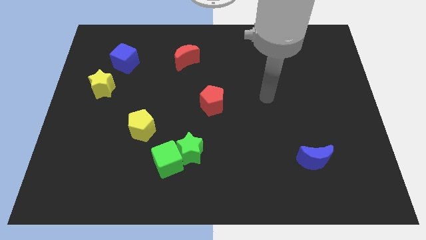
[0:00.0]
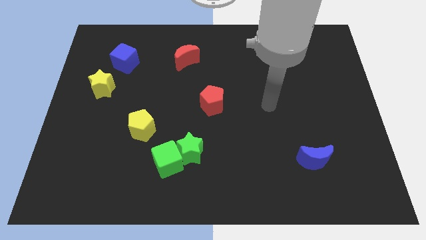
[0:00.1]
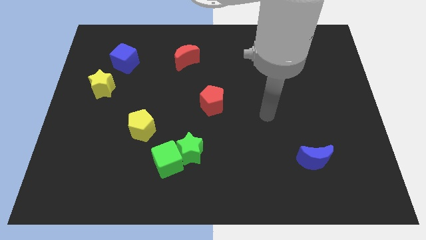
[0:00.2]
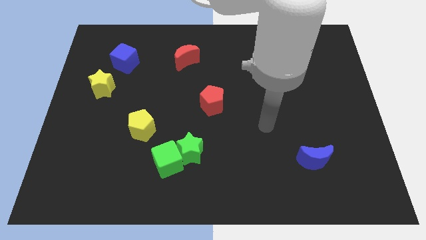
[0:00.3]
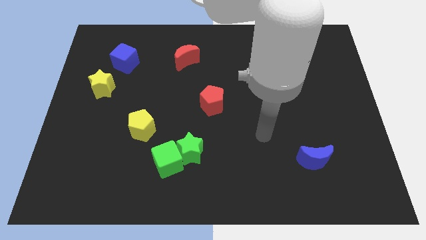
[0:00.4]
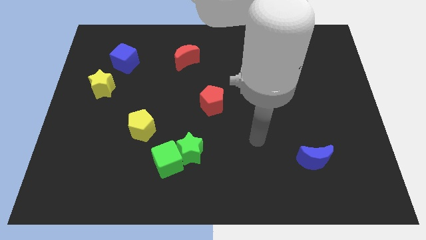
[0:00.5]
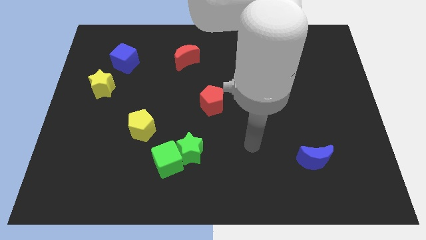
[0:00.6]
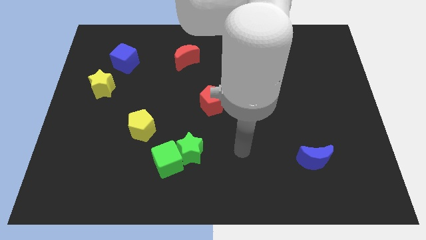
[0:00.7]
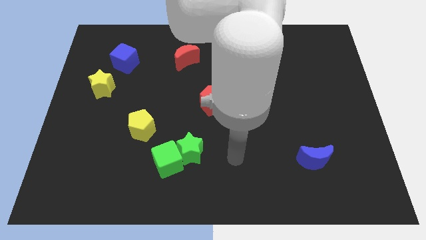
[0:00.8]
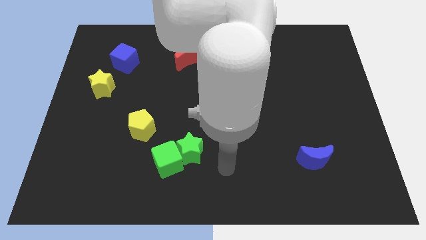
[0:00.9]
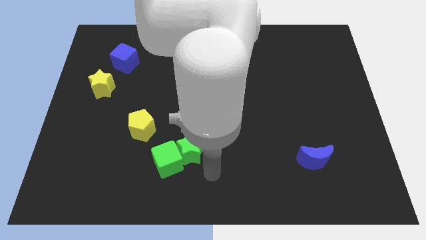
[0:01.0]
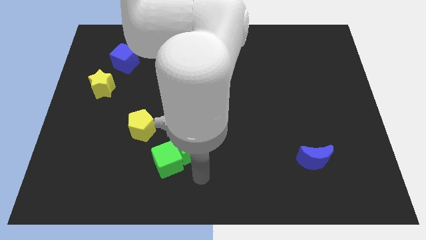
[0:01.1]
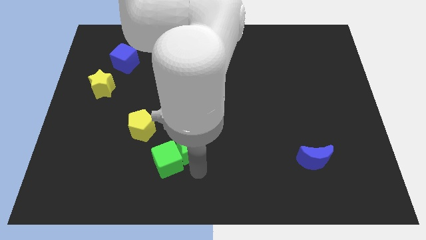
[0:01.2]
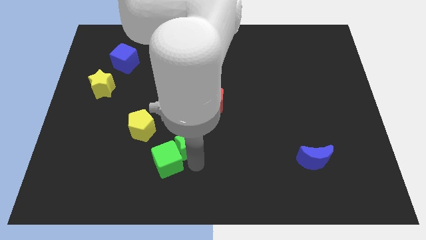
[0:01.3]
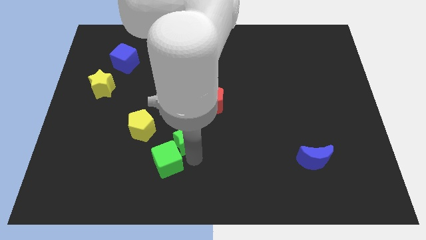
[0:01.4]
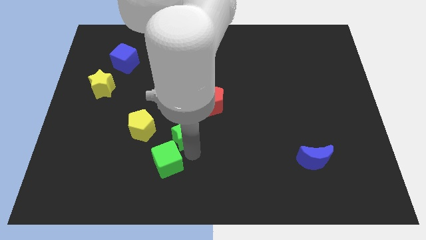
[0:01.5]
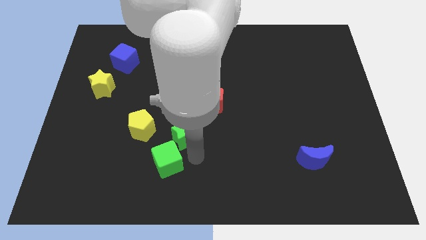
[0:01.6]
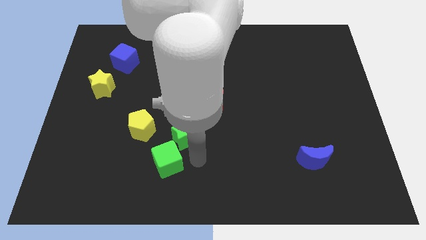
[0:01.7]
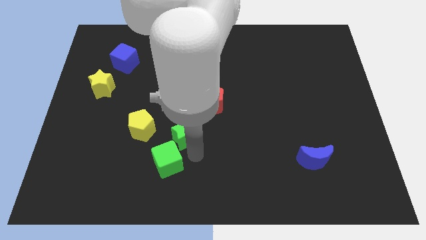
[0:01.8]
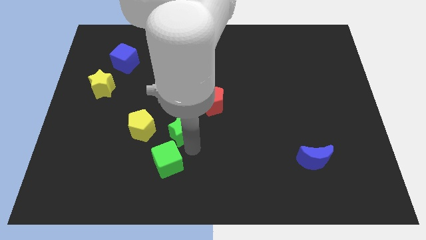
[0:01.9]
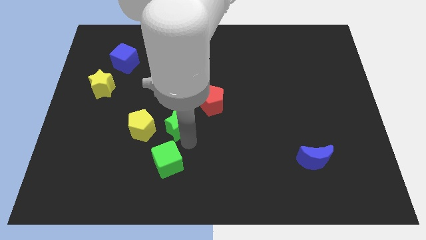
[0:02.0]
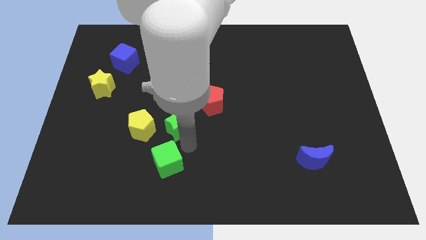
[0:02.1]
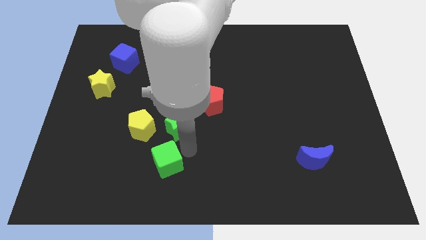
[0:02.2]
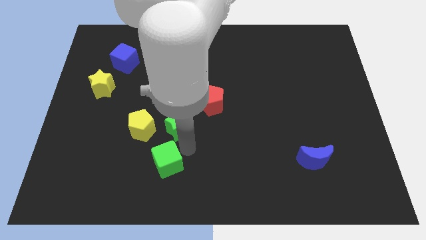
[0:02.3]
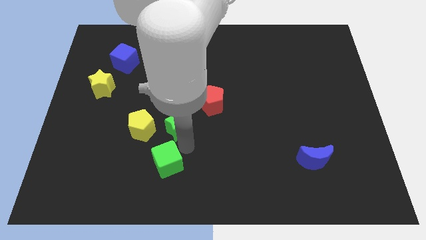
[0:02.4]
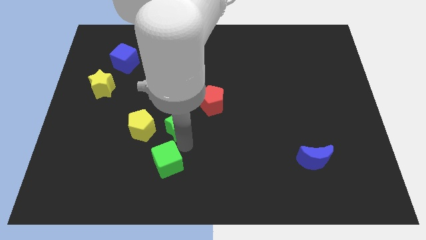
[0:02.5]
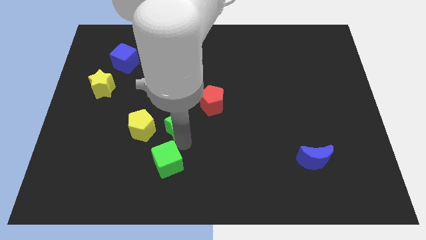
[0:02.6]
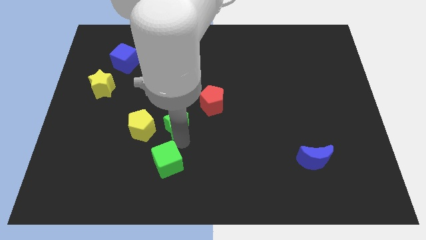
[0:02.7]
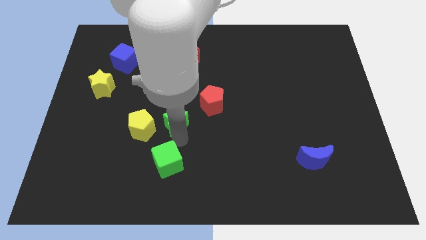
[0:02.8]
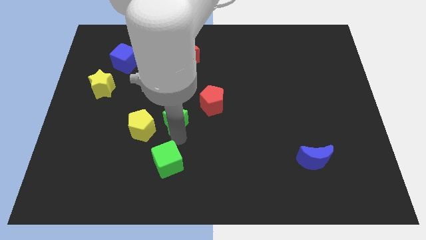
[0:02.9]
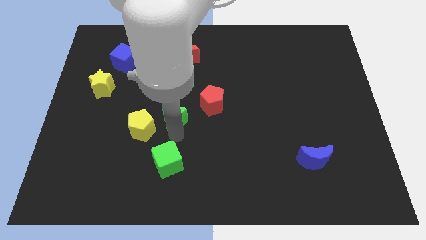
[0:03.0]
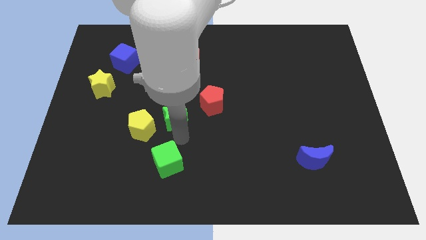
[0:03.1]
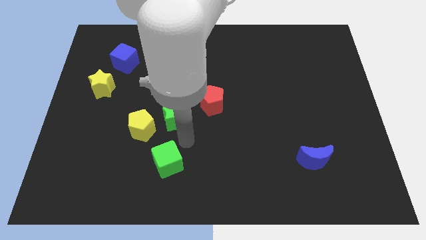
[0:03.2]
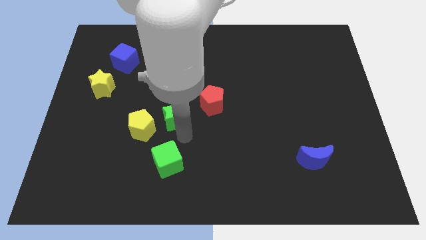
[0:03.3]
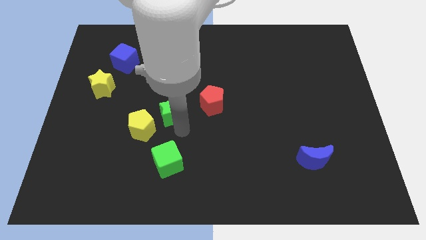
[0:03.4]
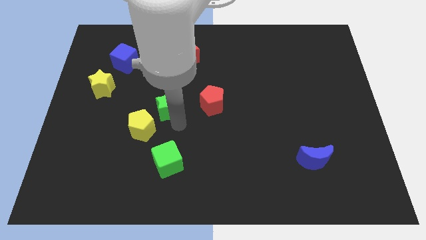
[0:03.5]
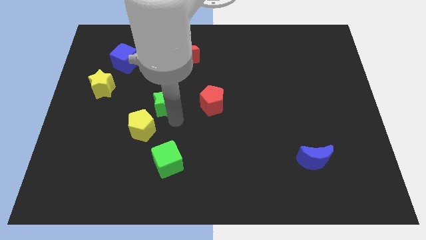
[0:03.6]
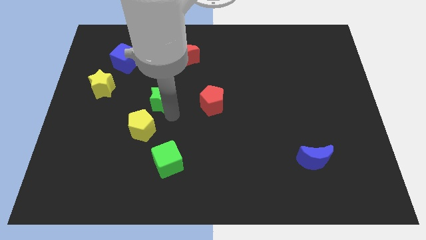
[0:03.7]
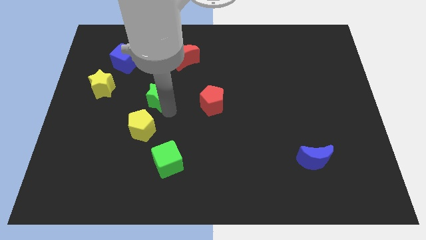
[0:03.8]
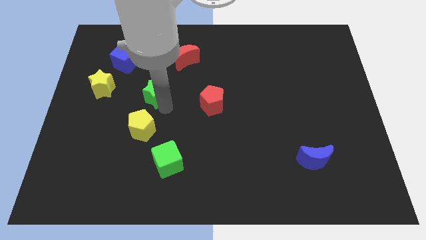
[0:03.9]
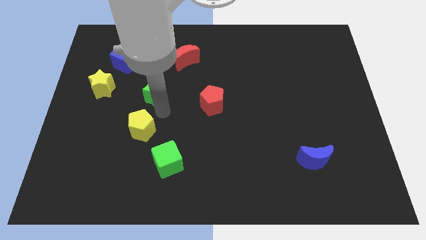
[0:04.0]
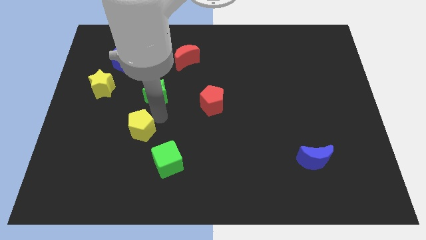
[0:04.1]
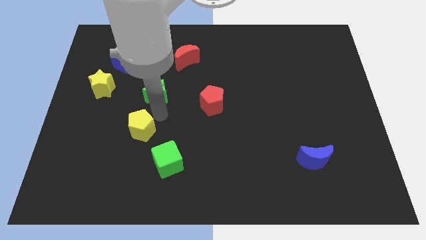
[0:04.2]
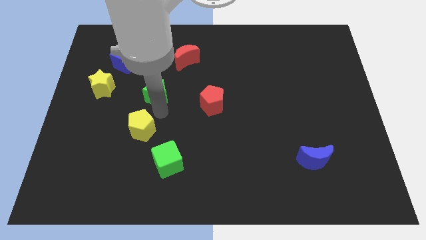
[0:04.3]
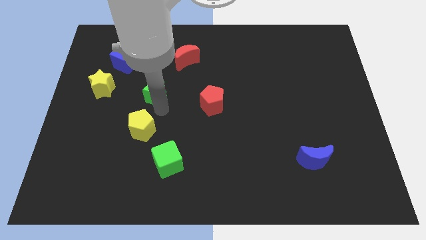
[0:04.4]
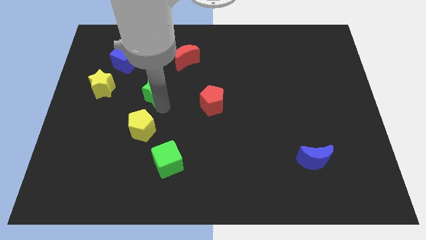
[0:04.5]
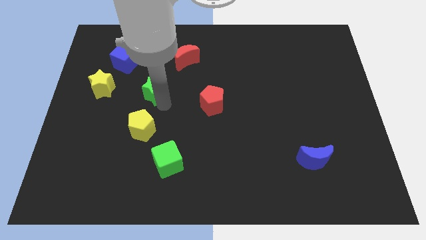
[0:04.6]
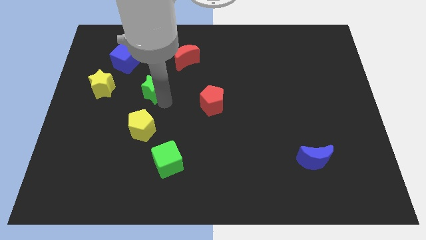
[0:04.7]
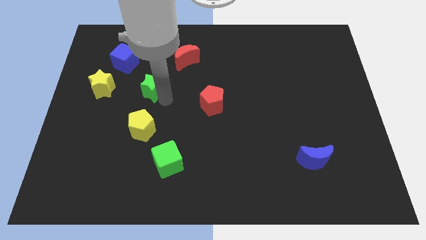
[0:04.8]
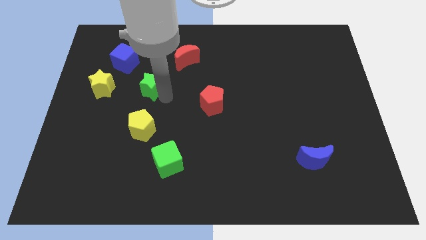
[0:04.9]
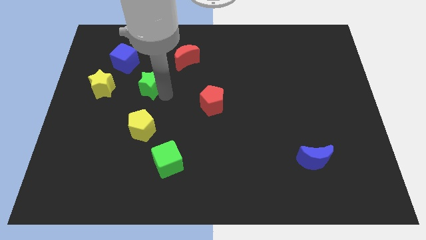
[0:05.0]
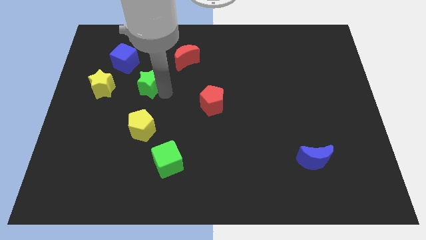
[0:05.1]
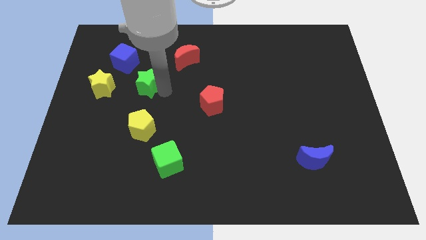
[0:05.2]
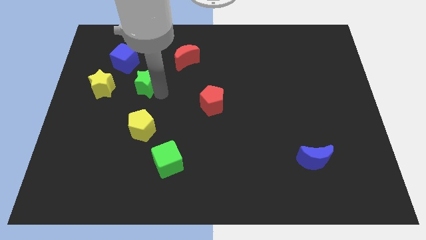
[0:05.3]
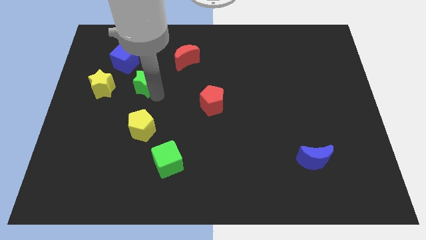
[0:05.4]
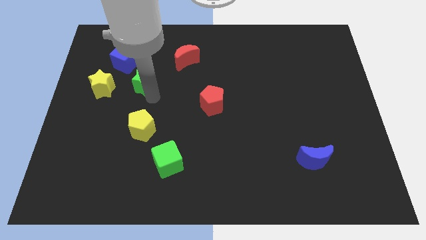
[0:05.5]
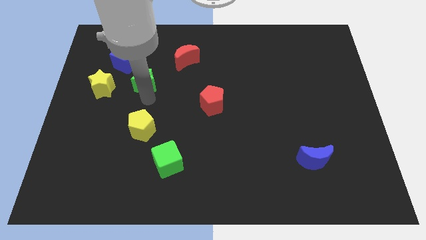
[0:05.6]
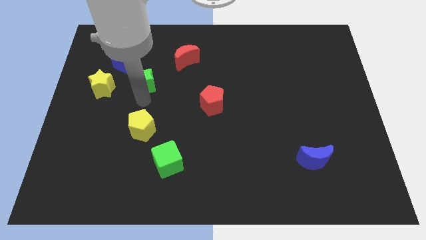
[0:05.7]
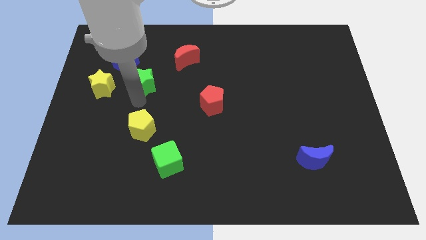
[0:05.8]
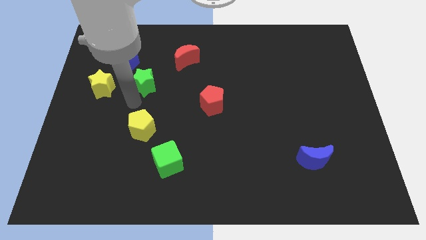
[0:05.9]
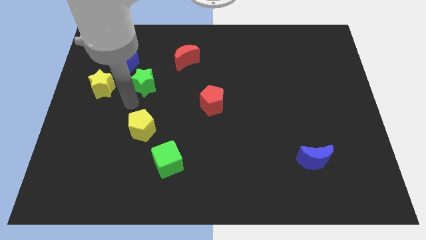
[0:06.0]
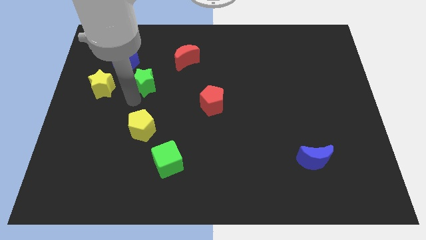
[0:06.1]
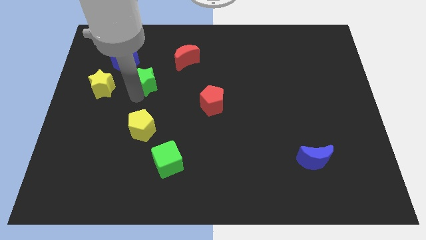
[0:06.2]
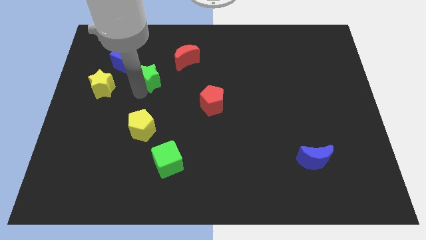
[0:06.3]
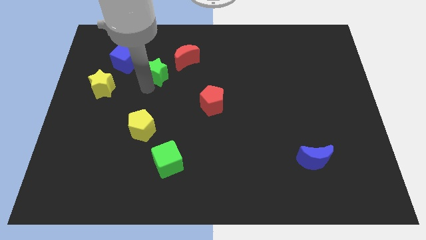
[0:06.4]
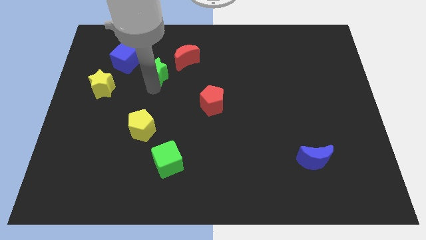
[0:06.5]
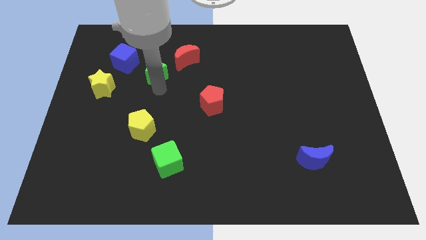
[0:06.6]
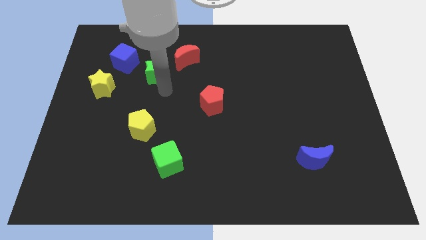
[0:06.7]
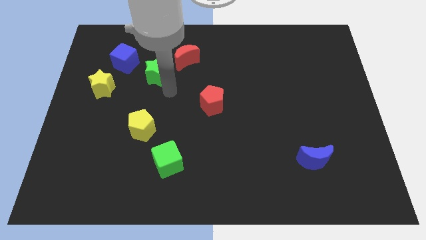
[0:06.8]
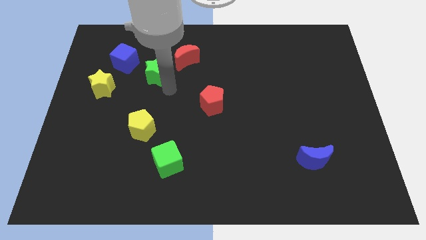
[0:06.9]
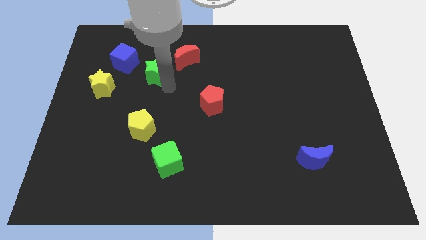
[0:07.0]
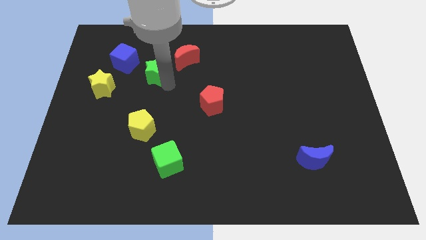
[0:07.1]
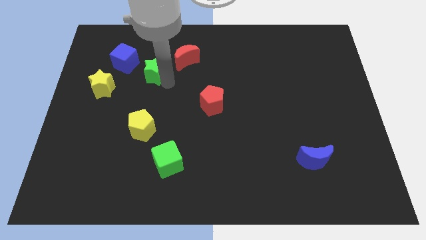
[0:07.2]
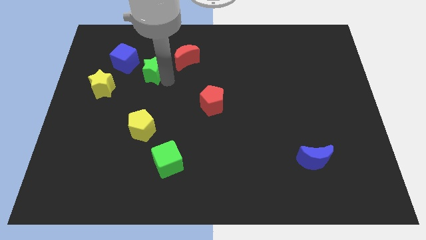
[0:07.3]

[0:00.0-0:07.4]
slide the green star left of the red moon

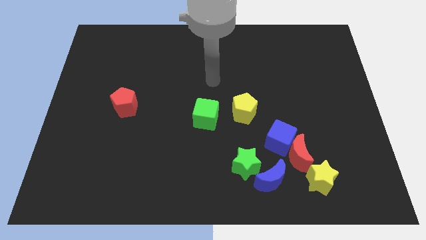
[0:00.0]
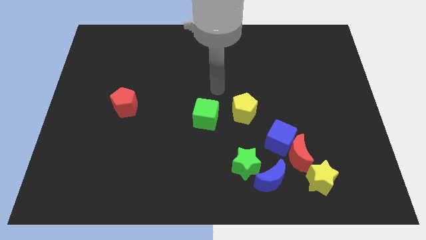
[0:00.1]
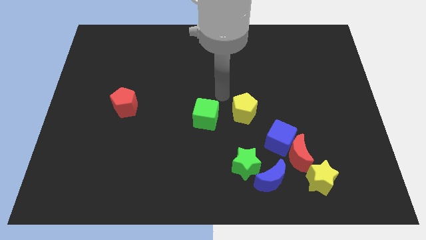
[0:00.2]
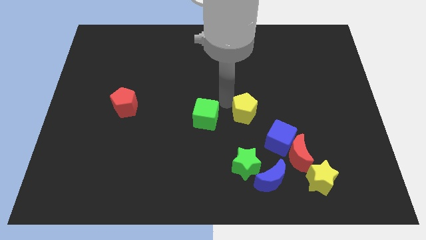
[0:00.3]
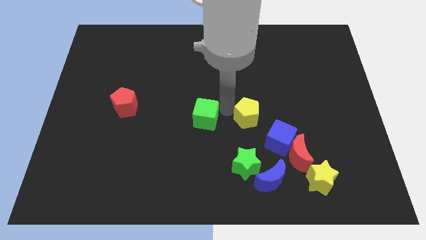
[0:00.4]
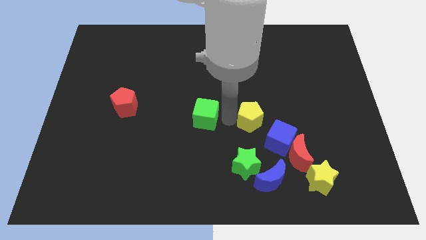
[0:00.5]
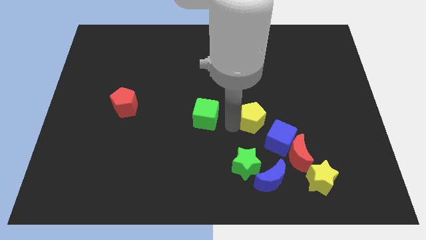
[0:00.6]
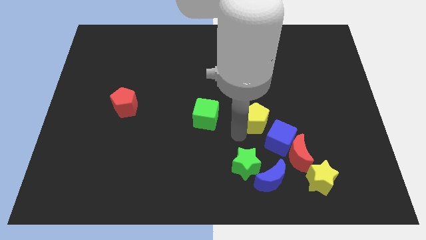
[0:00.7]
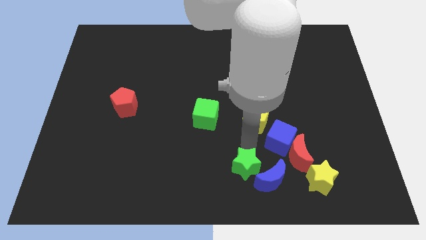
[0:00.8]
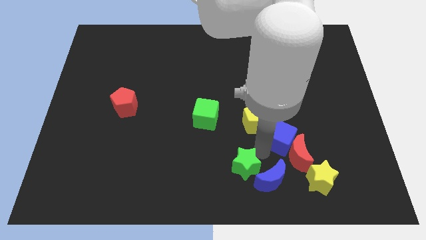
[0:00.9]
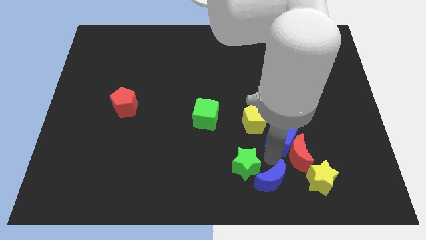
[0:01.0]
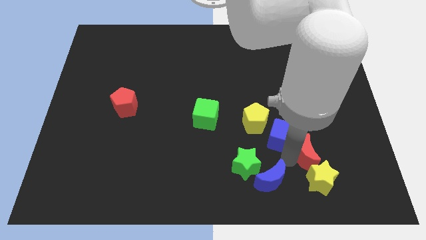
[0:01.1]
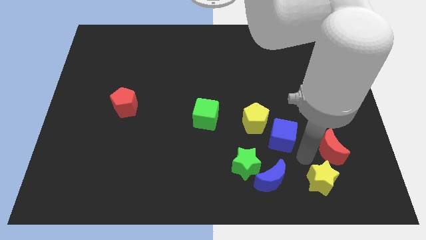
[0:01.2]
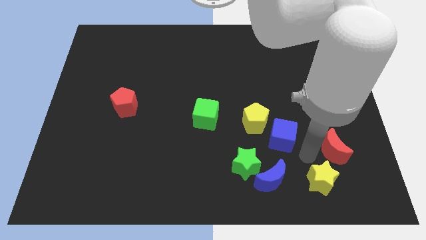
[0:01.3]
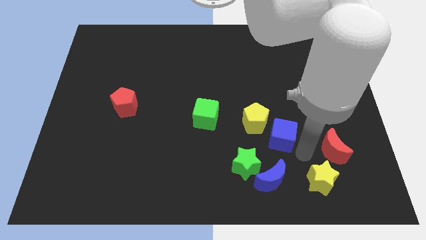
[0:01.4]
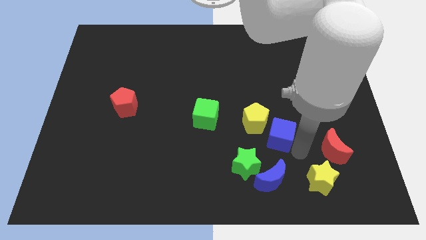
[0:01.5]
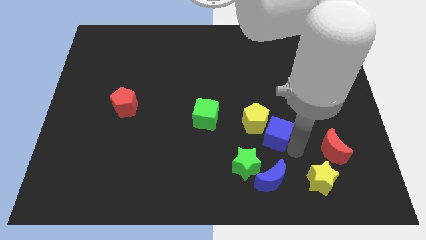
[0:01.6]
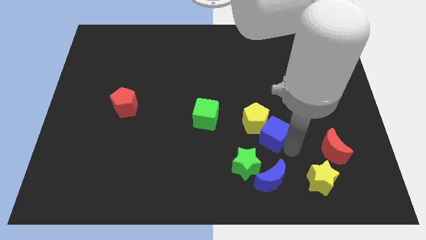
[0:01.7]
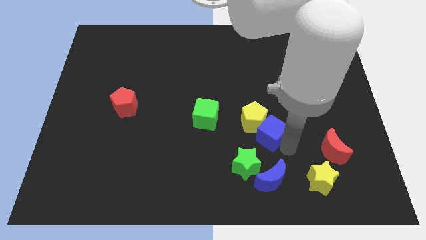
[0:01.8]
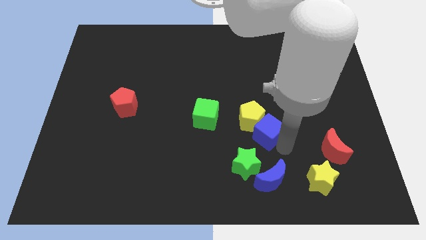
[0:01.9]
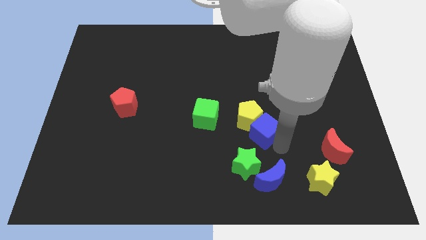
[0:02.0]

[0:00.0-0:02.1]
push the blue cube to the right side of the green cube
